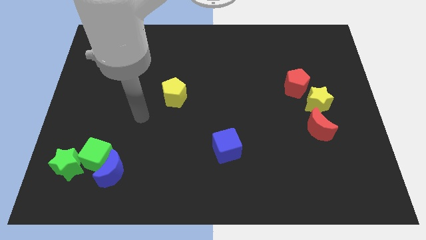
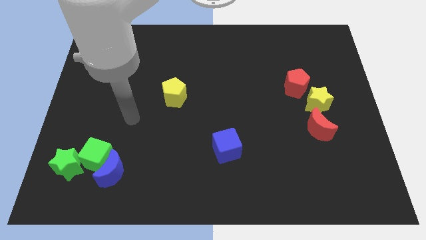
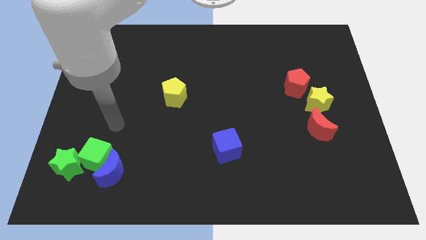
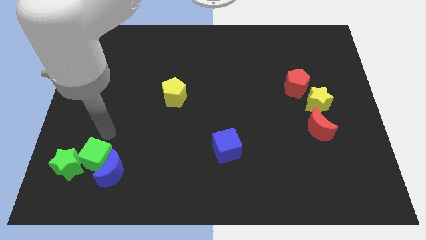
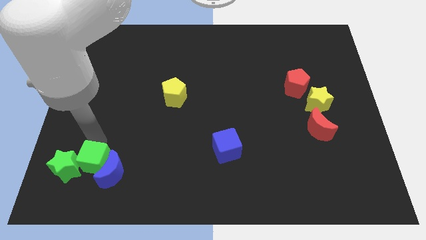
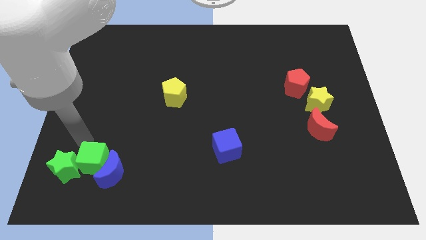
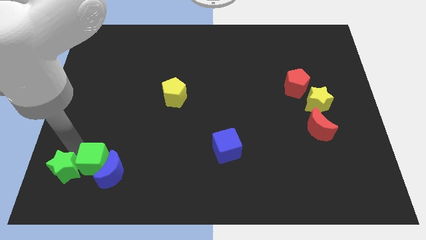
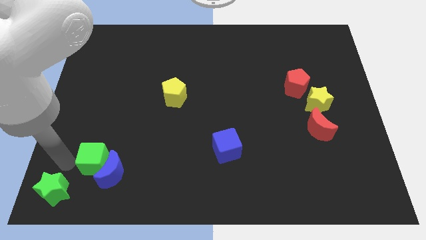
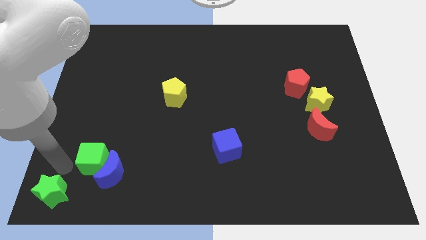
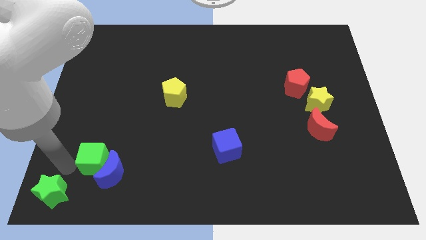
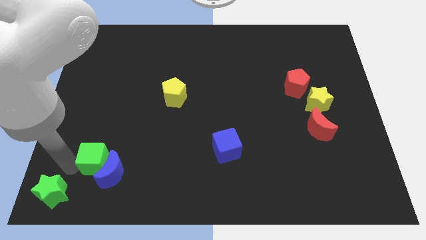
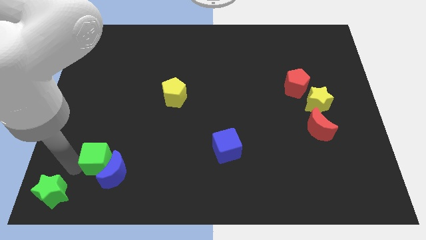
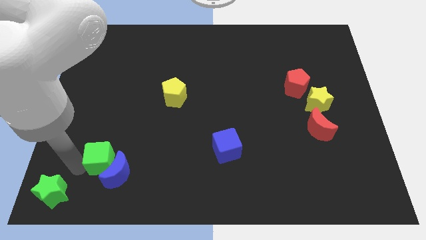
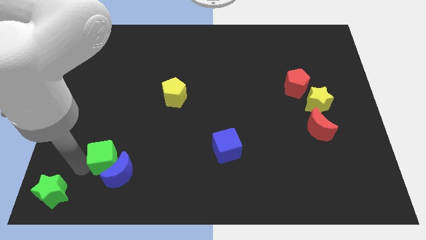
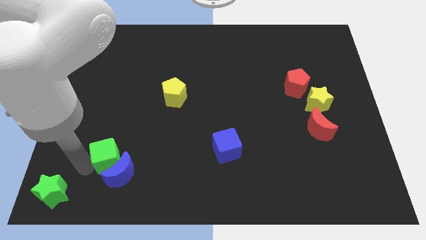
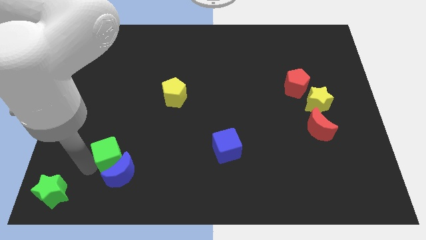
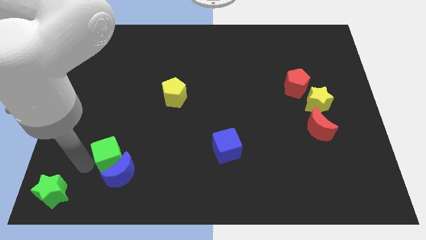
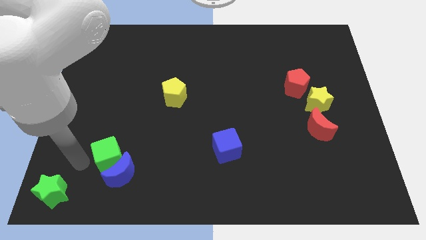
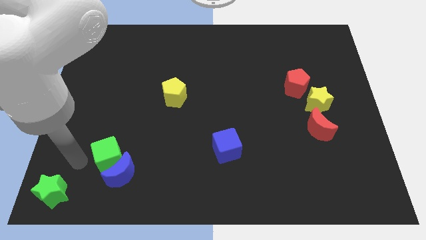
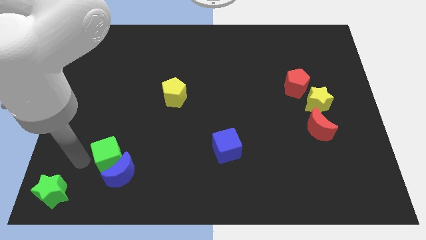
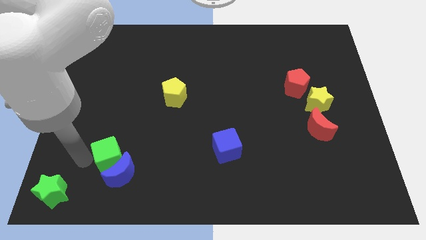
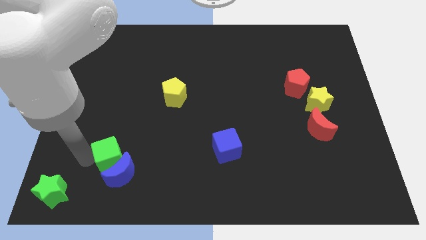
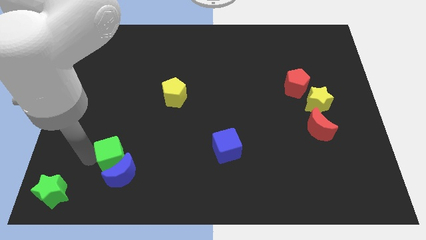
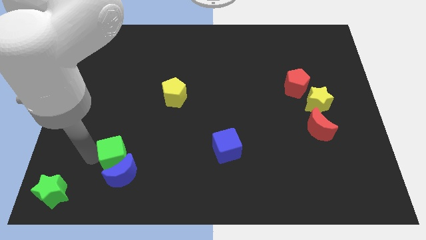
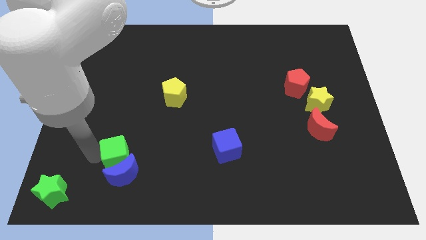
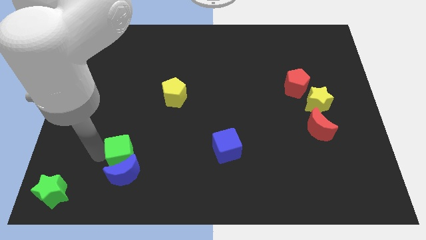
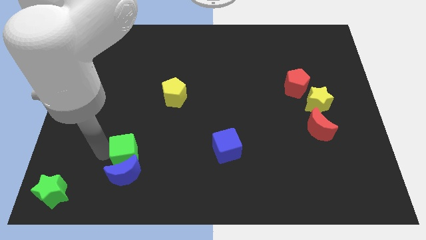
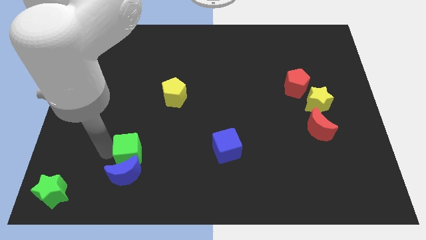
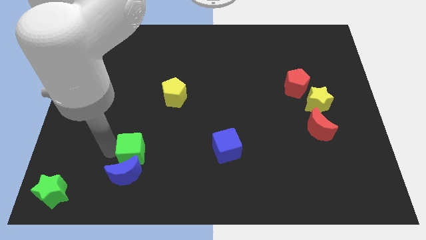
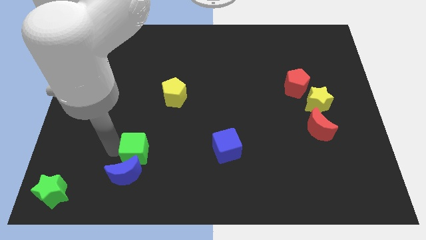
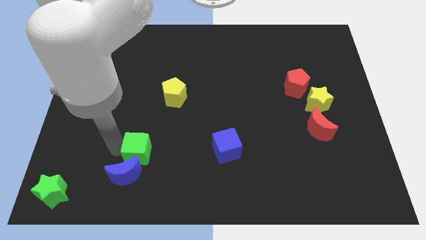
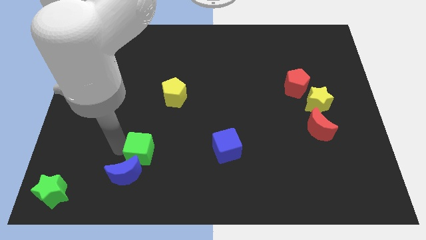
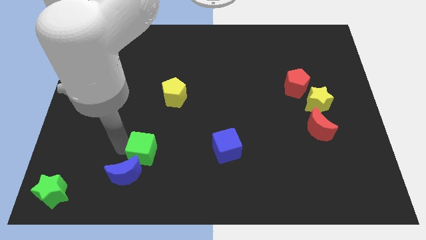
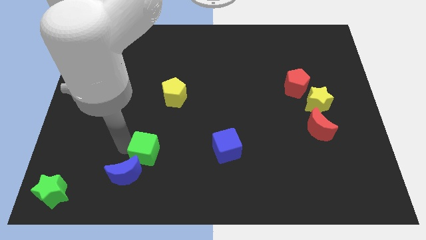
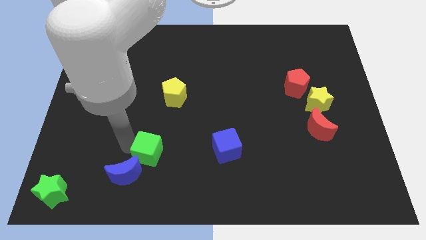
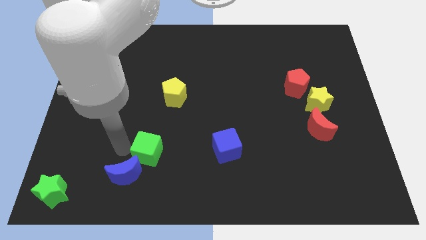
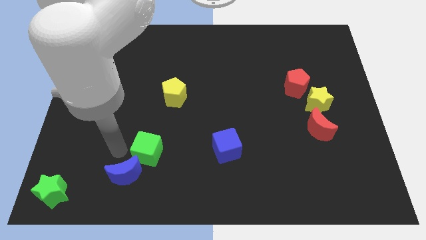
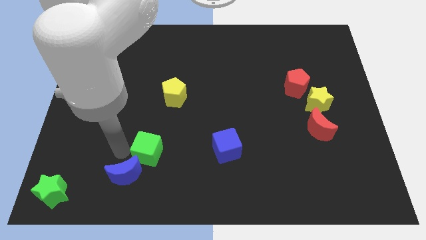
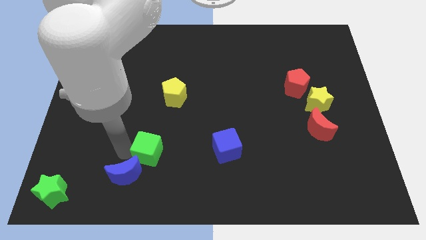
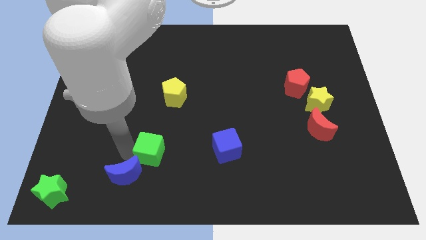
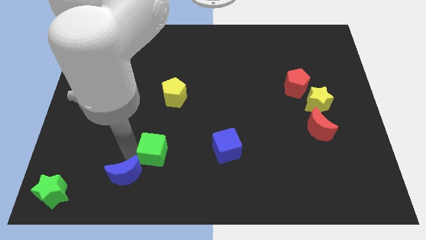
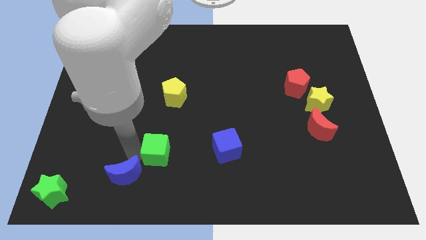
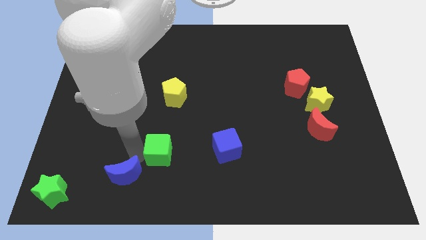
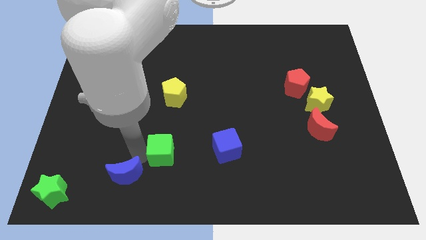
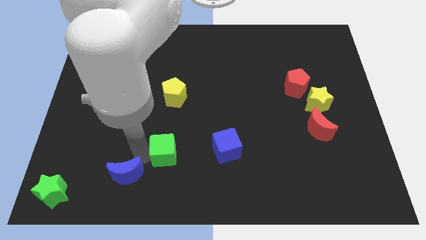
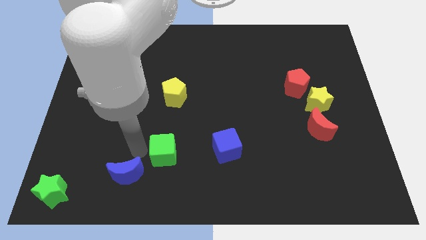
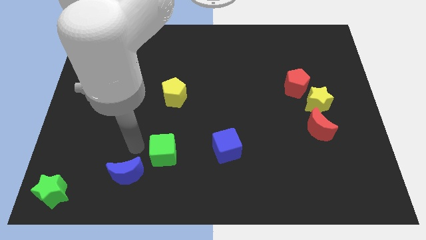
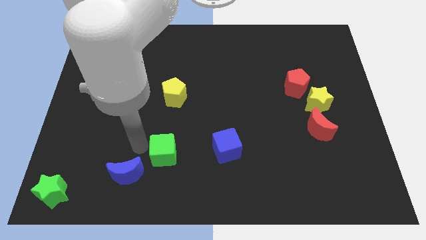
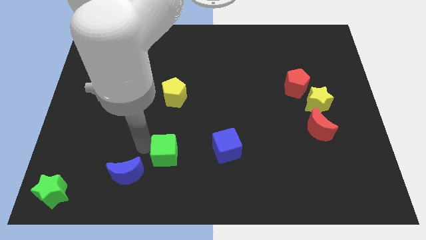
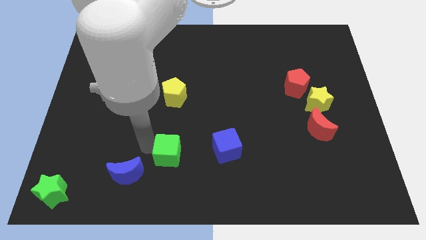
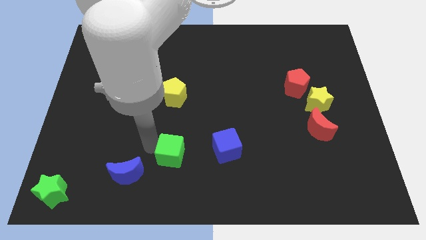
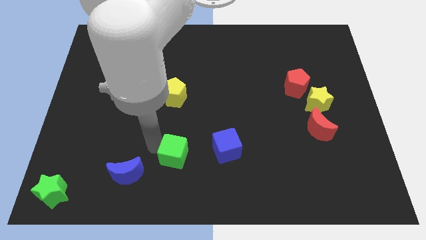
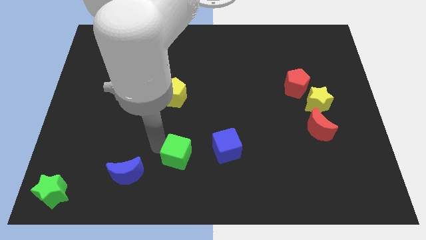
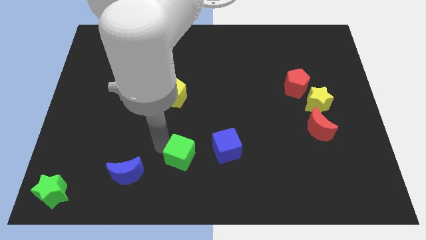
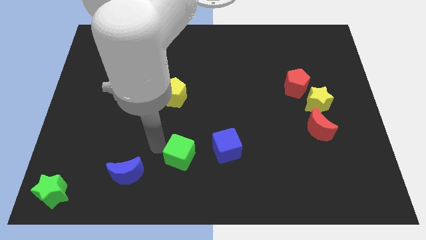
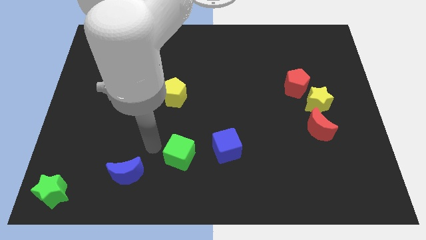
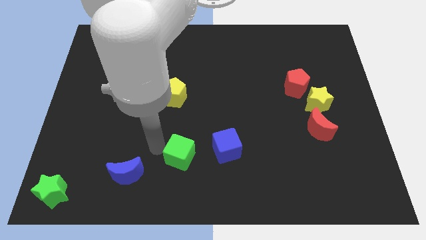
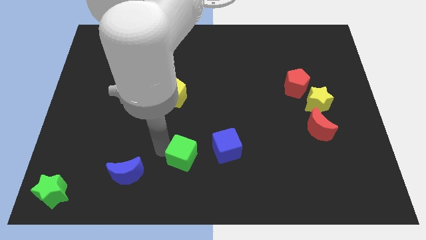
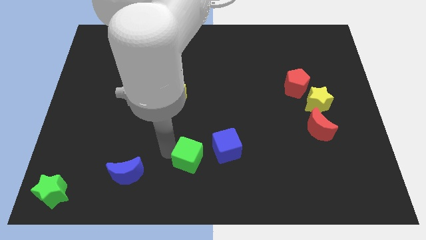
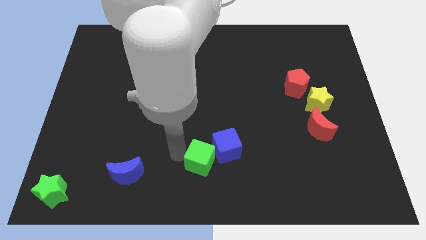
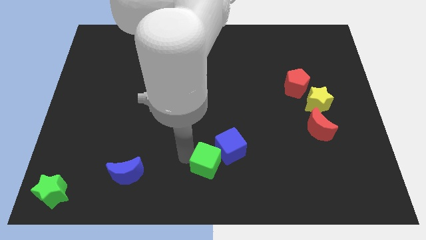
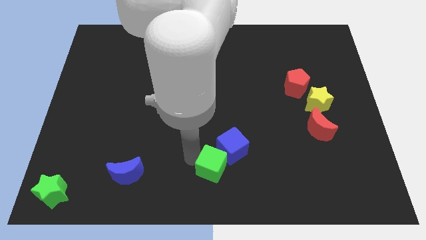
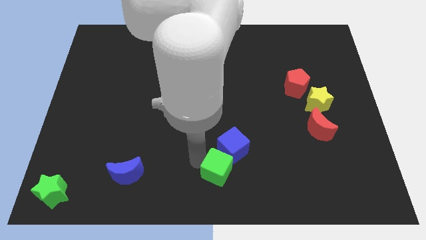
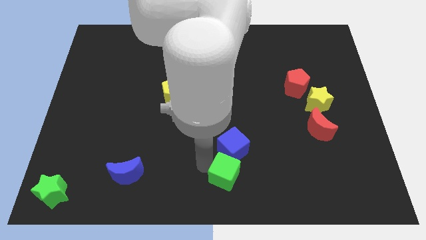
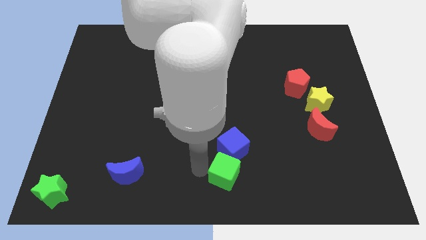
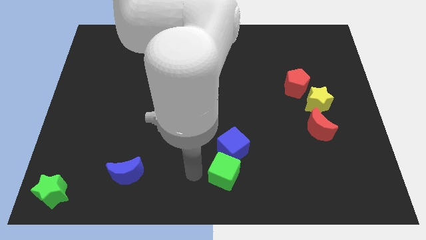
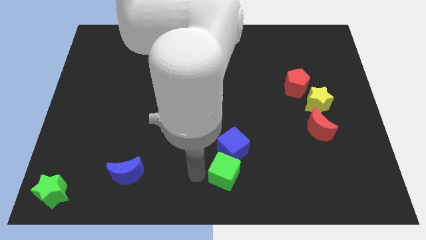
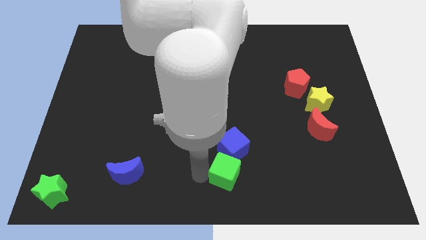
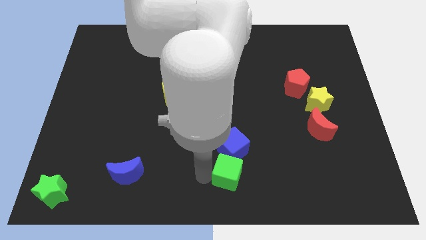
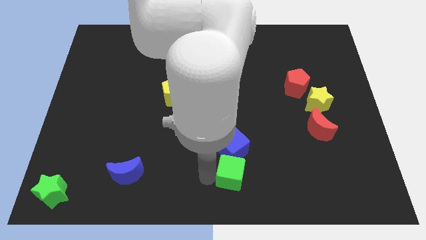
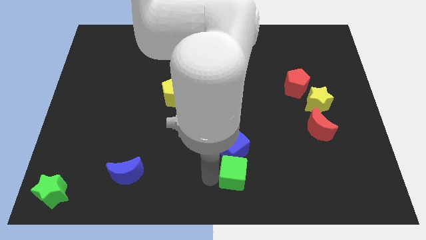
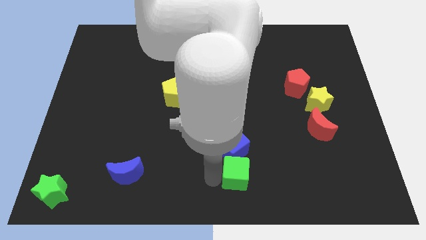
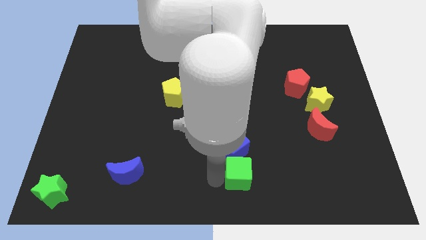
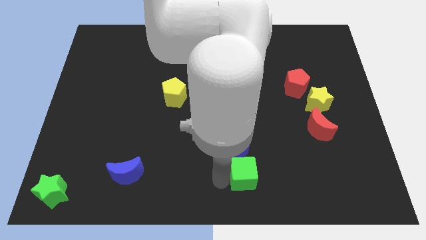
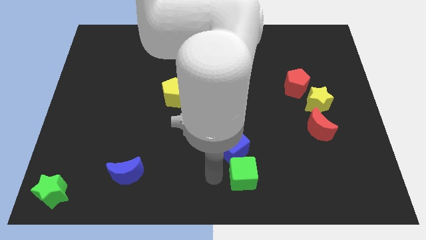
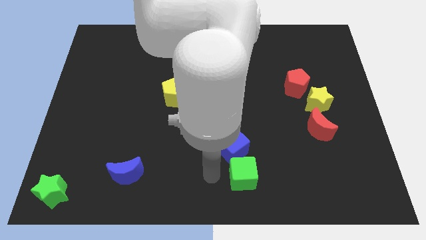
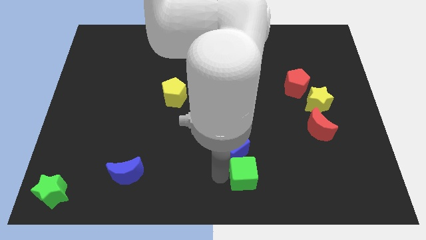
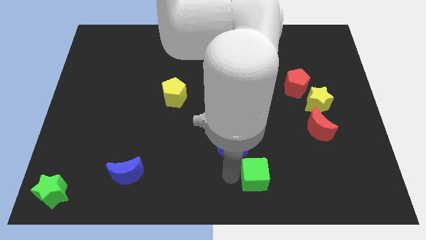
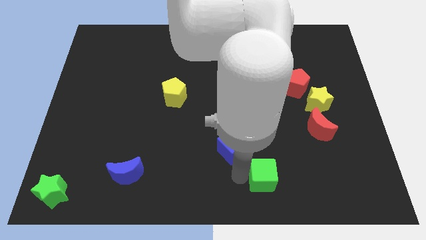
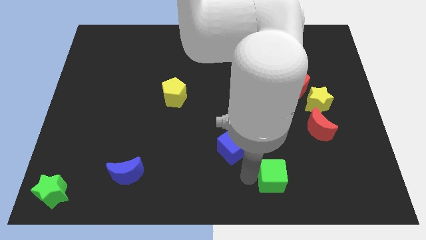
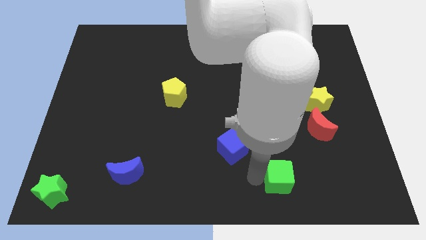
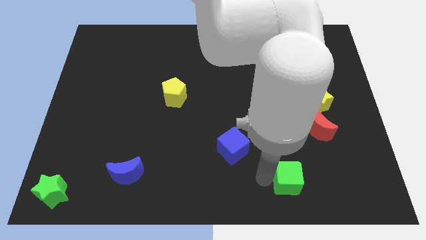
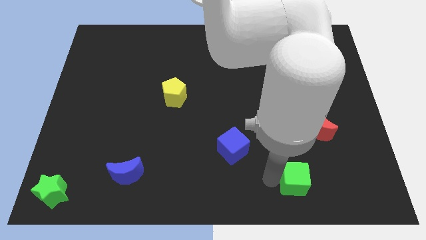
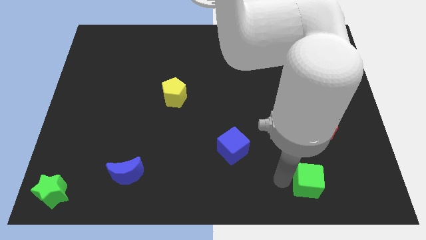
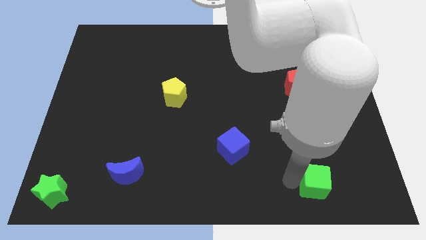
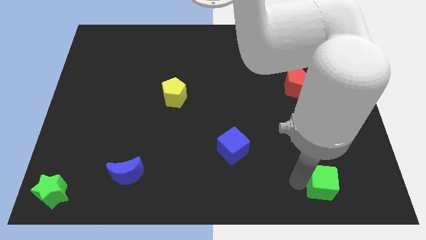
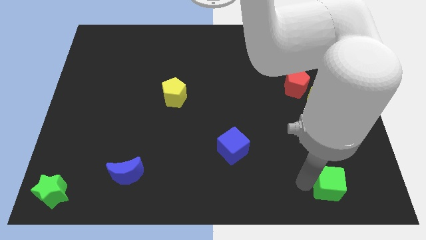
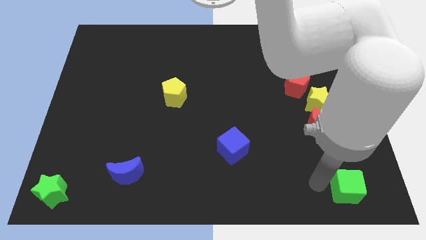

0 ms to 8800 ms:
push the green cube to the bottom right
